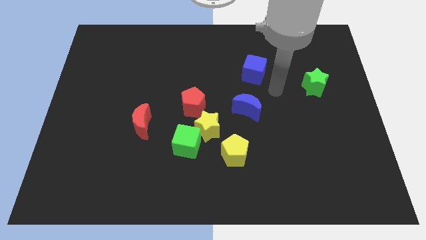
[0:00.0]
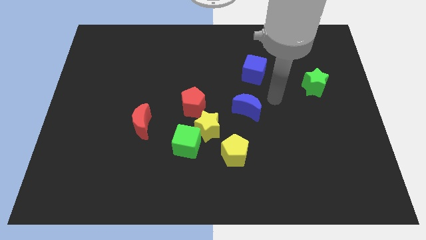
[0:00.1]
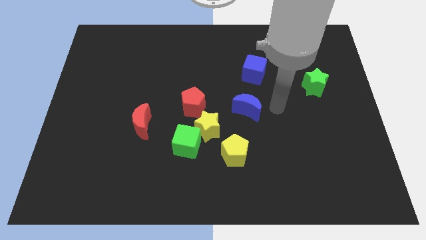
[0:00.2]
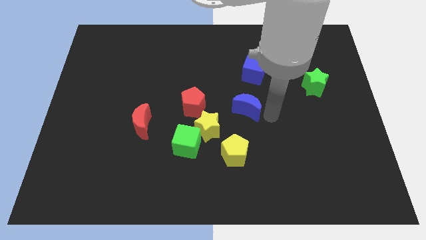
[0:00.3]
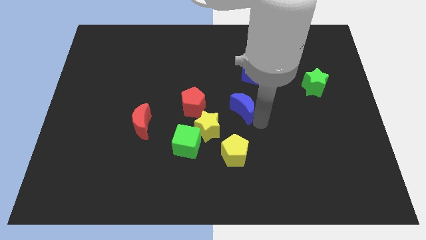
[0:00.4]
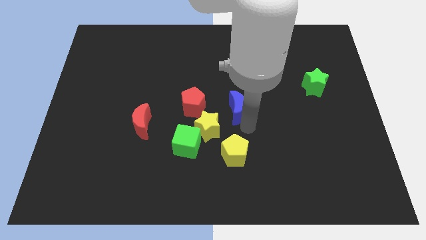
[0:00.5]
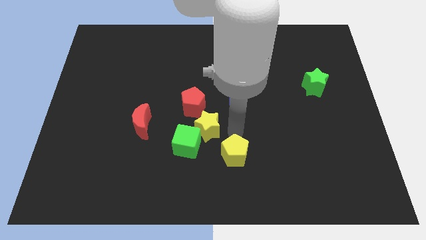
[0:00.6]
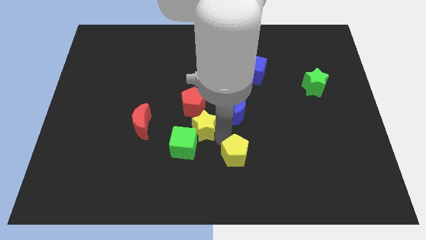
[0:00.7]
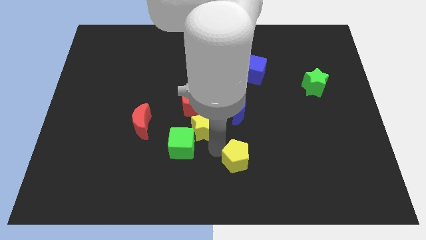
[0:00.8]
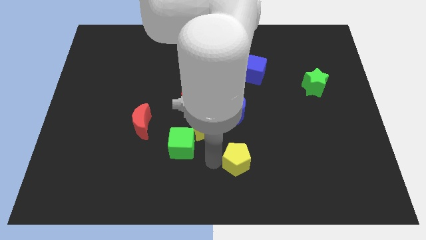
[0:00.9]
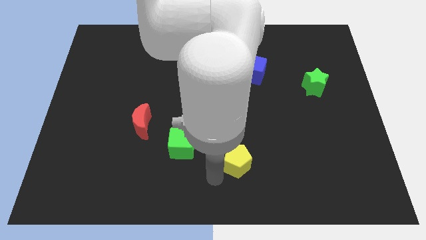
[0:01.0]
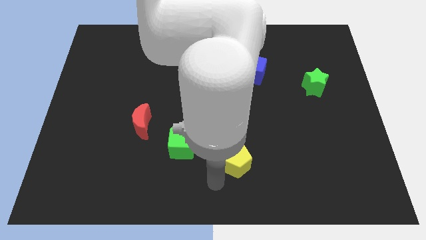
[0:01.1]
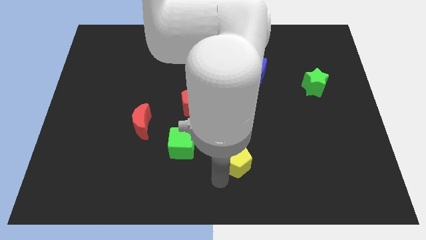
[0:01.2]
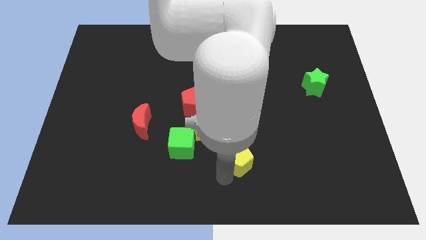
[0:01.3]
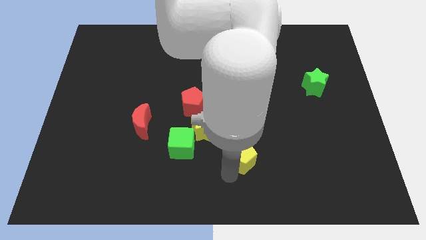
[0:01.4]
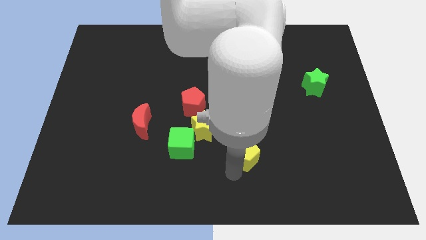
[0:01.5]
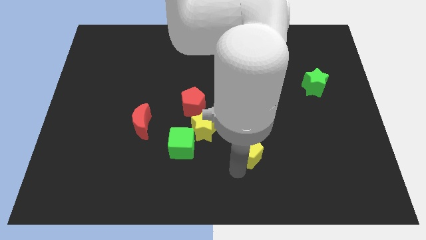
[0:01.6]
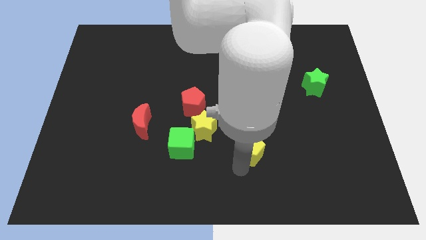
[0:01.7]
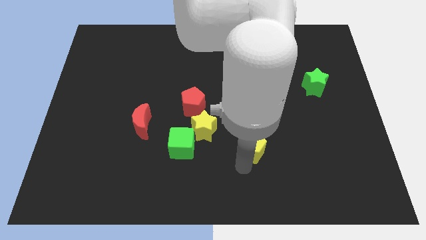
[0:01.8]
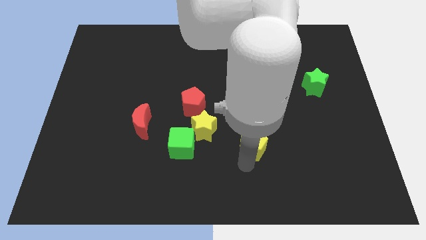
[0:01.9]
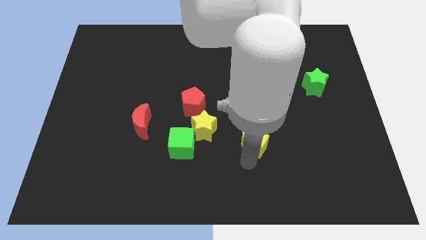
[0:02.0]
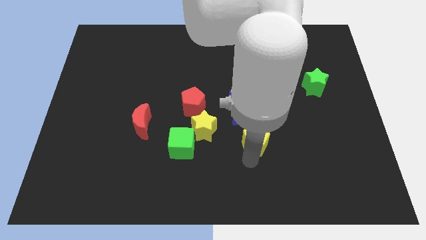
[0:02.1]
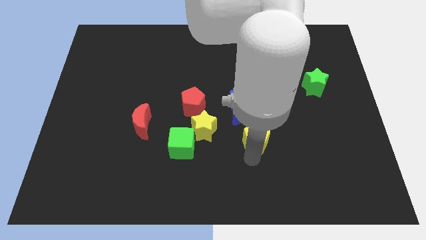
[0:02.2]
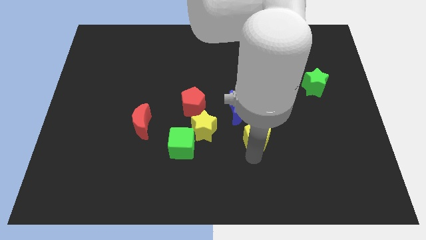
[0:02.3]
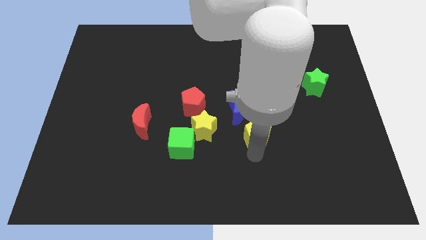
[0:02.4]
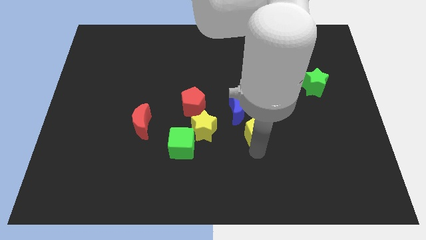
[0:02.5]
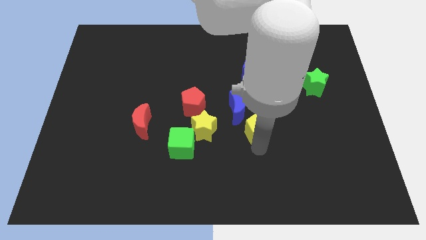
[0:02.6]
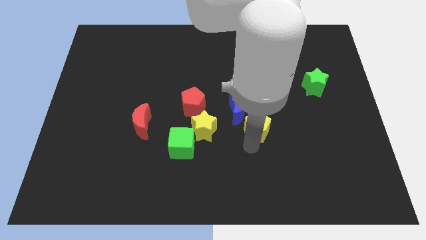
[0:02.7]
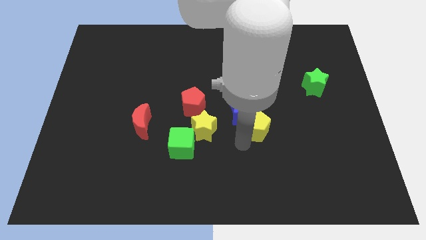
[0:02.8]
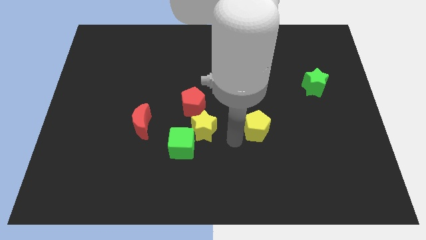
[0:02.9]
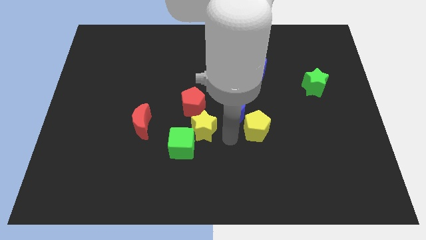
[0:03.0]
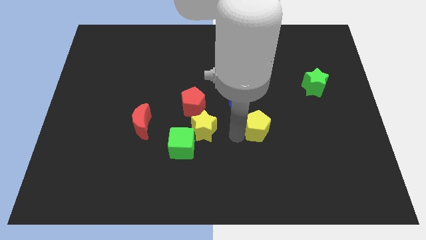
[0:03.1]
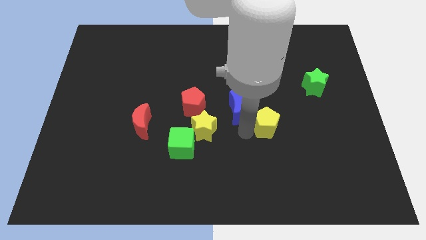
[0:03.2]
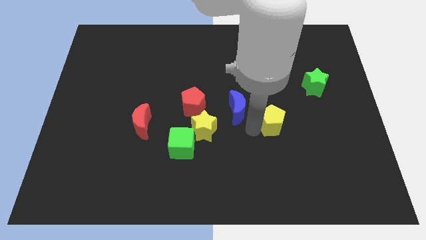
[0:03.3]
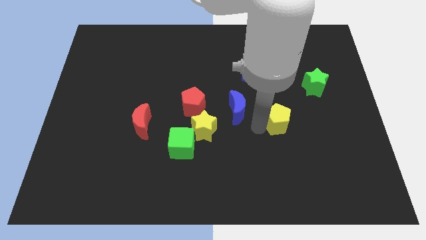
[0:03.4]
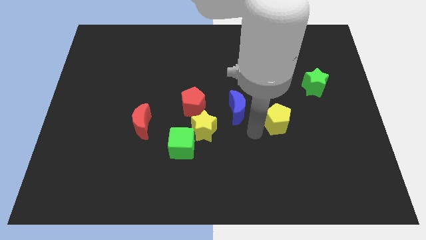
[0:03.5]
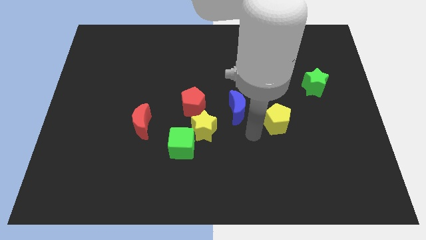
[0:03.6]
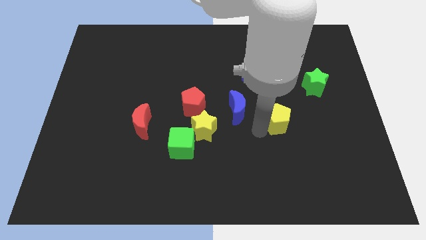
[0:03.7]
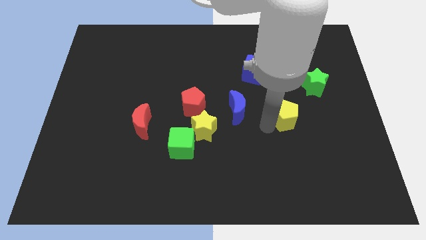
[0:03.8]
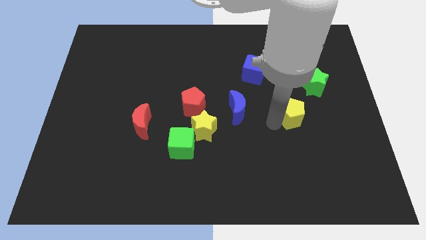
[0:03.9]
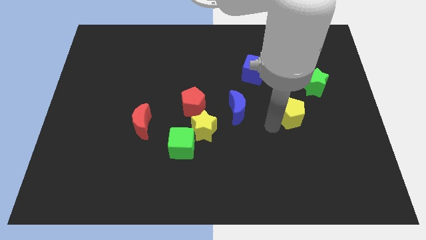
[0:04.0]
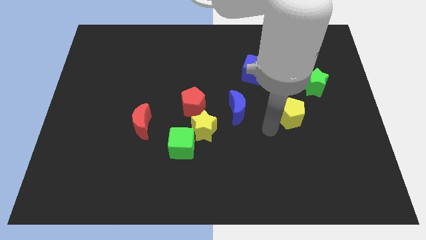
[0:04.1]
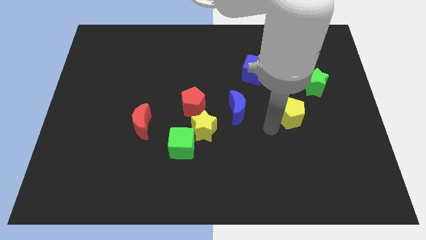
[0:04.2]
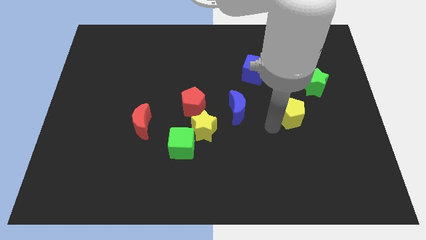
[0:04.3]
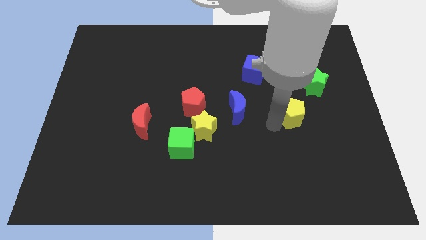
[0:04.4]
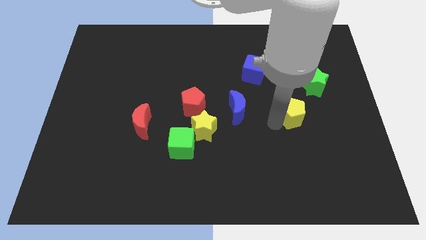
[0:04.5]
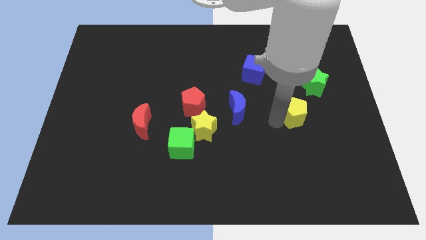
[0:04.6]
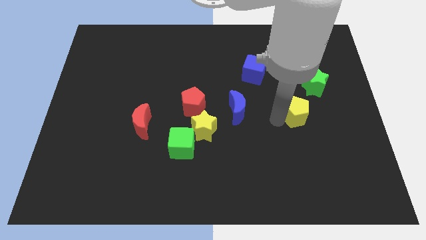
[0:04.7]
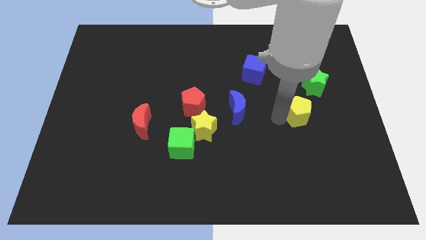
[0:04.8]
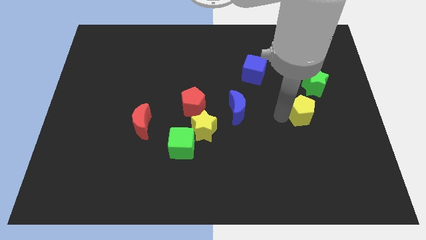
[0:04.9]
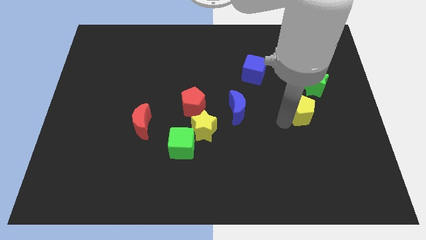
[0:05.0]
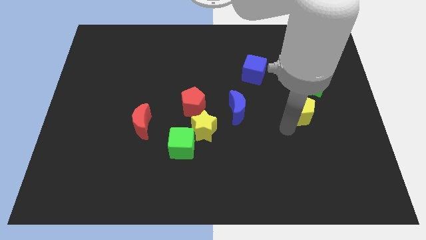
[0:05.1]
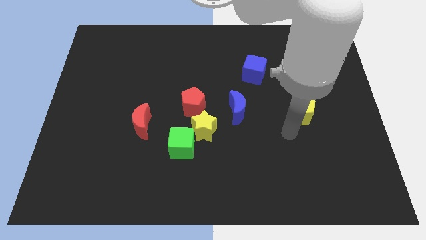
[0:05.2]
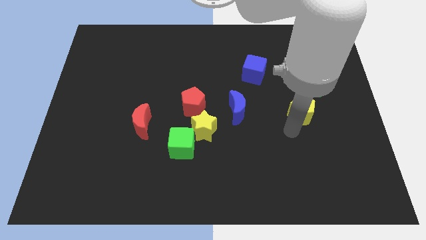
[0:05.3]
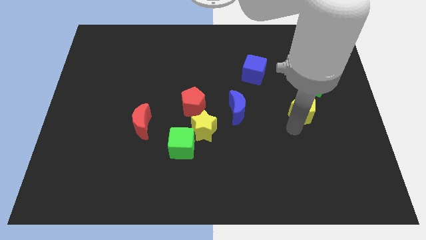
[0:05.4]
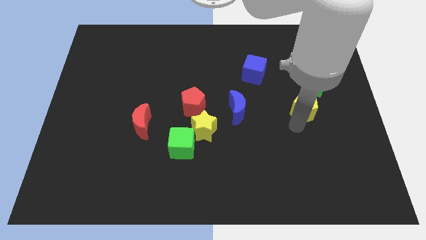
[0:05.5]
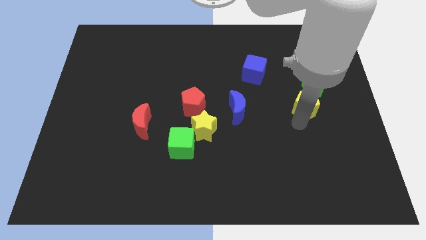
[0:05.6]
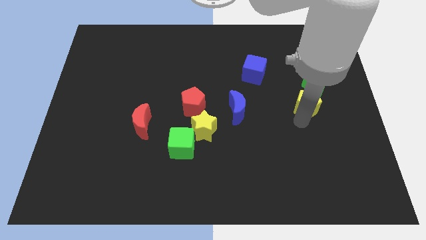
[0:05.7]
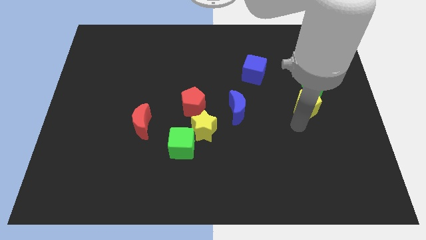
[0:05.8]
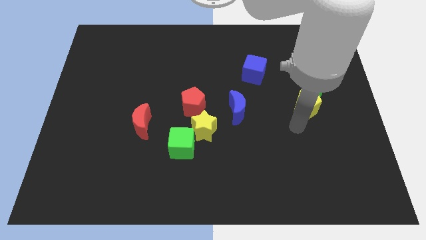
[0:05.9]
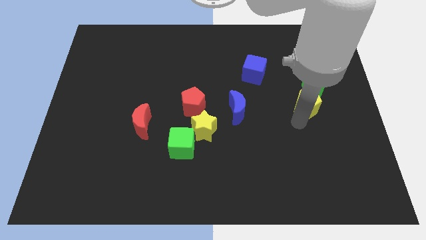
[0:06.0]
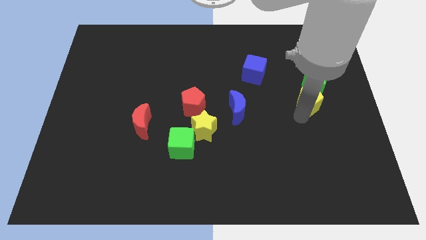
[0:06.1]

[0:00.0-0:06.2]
push the yellow pentagon to the green star

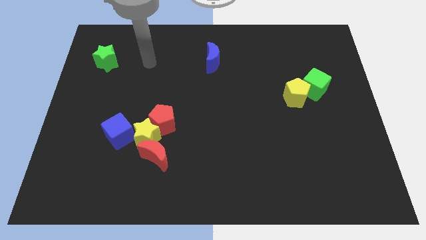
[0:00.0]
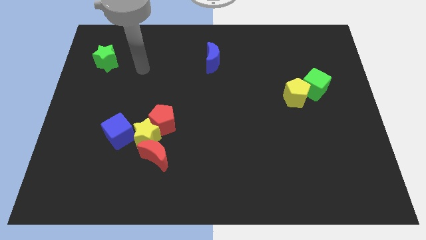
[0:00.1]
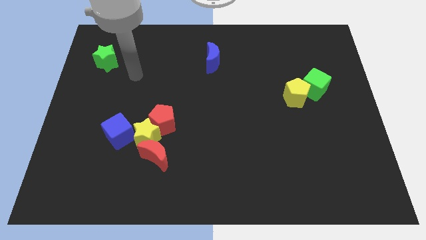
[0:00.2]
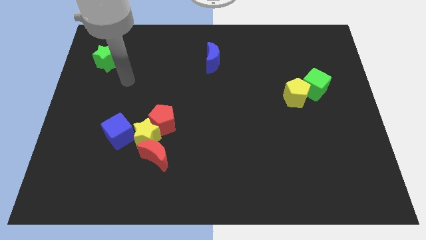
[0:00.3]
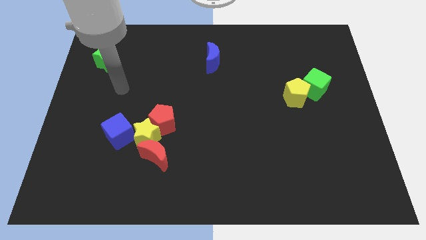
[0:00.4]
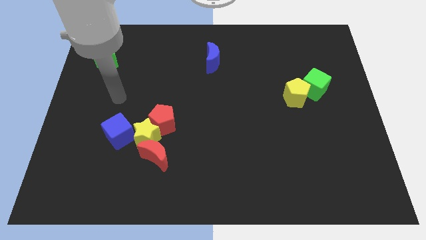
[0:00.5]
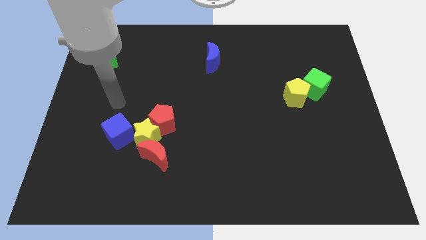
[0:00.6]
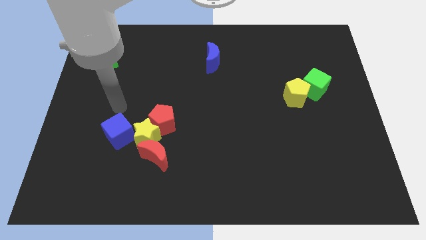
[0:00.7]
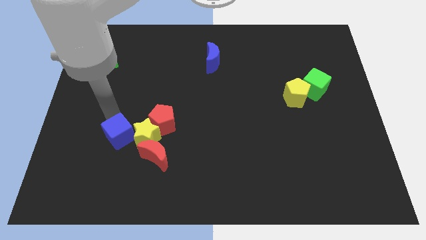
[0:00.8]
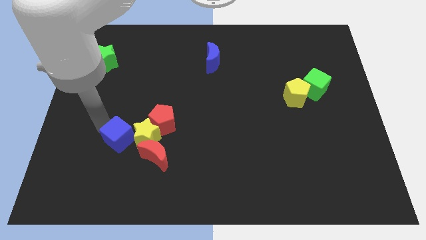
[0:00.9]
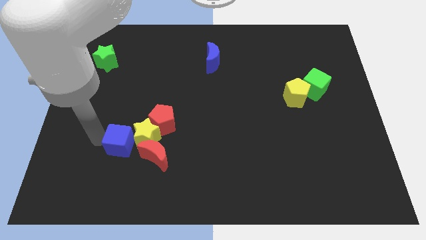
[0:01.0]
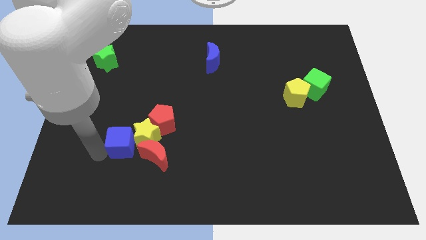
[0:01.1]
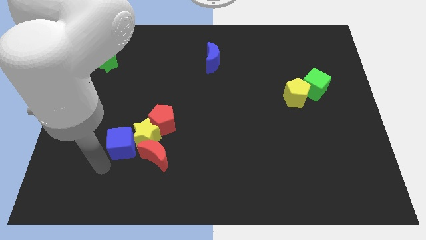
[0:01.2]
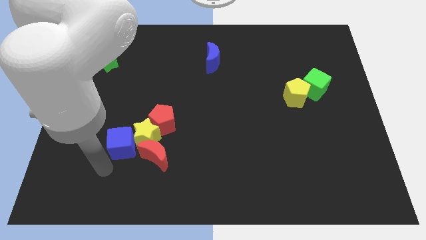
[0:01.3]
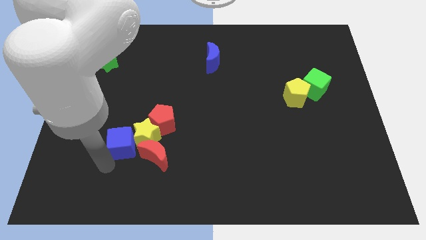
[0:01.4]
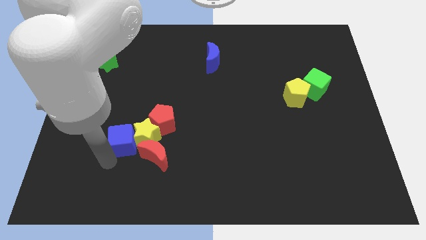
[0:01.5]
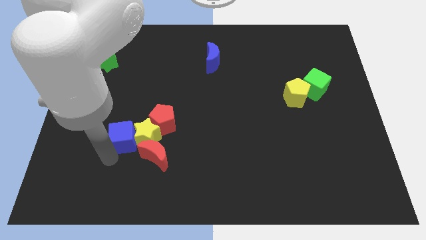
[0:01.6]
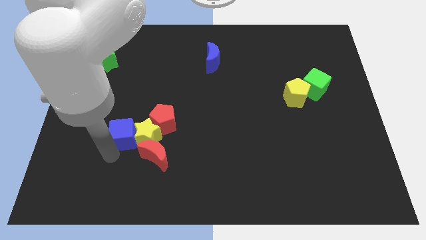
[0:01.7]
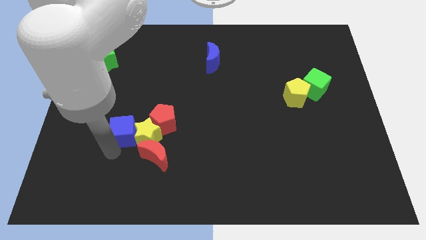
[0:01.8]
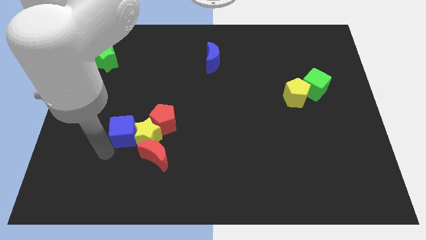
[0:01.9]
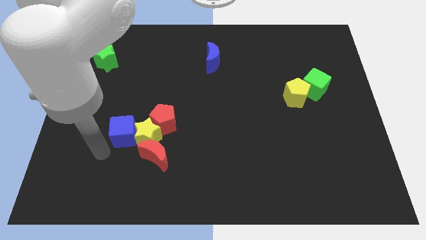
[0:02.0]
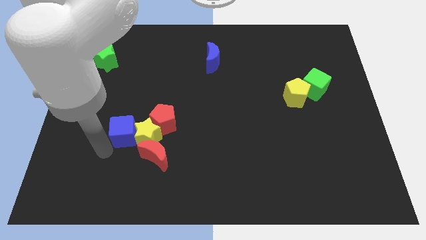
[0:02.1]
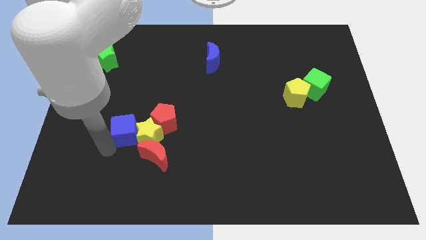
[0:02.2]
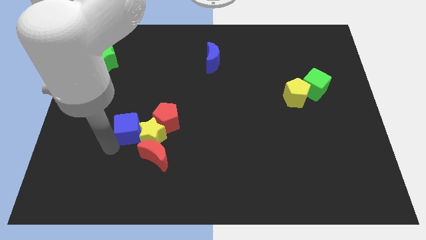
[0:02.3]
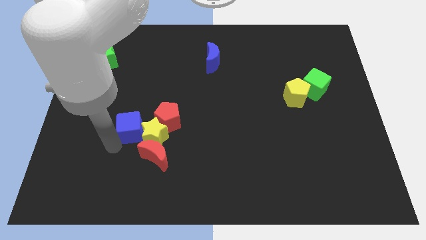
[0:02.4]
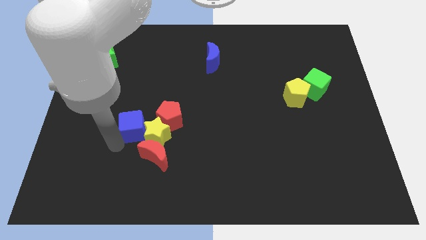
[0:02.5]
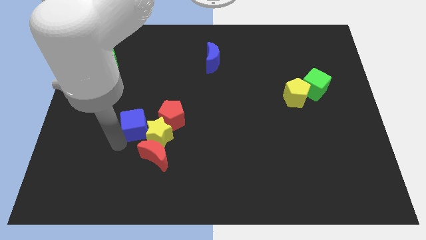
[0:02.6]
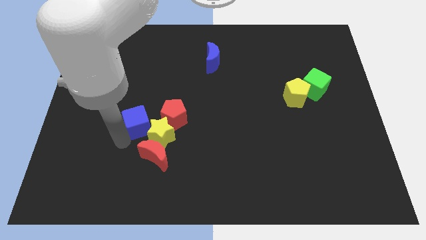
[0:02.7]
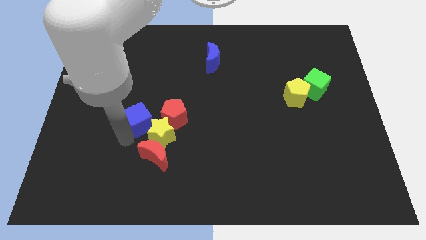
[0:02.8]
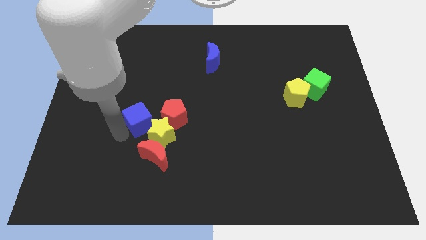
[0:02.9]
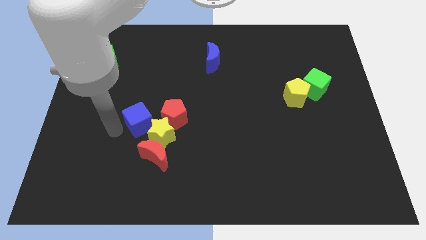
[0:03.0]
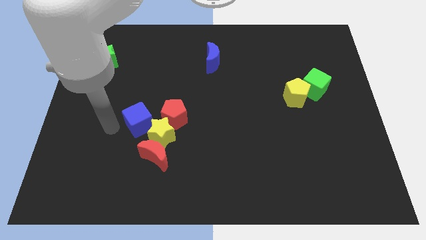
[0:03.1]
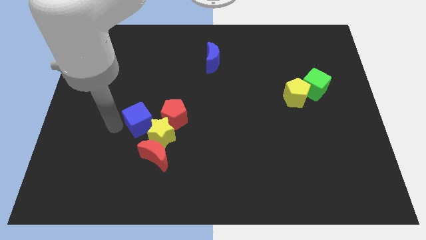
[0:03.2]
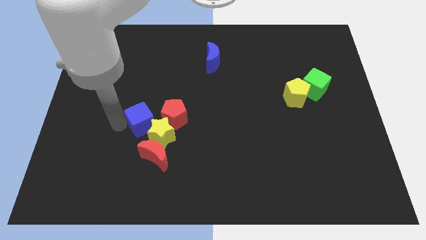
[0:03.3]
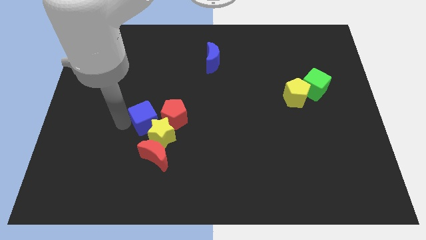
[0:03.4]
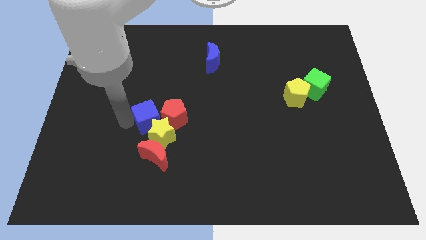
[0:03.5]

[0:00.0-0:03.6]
slide the blue cube towards the red pentagon
